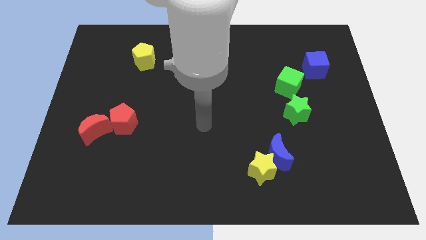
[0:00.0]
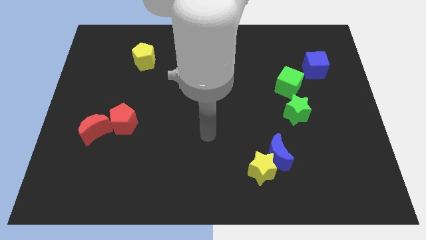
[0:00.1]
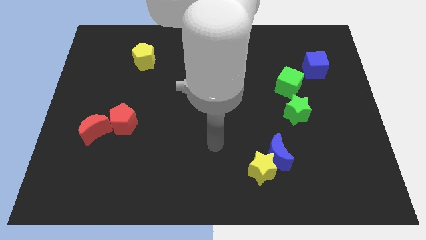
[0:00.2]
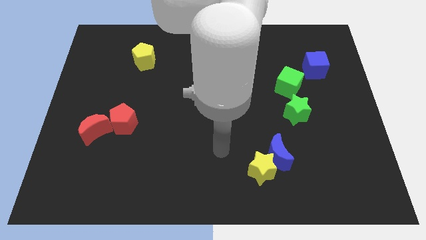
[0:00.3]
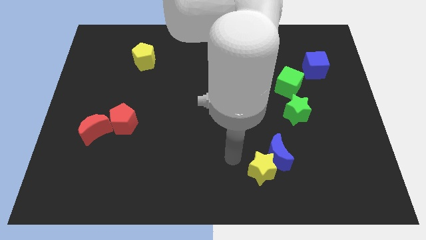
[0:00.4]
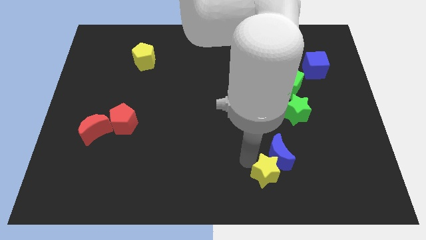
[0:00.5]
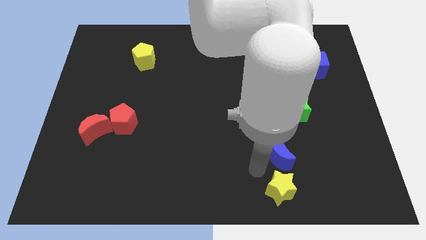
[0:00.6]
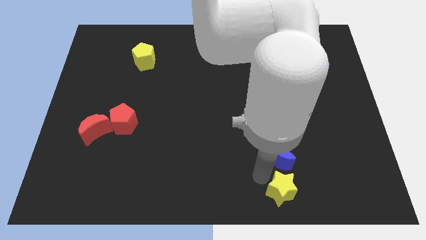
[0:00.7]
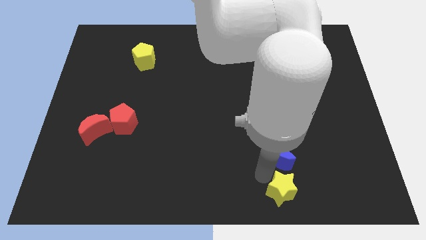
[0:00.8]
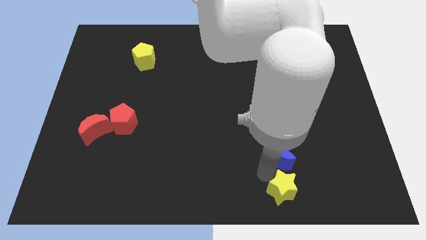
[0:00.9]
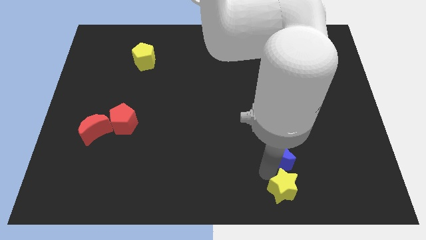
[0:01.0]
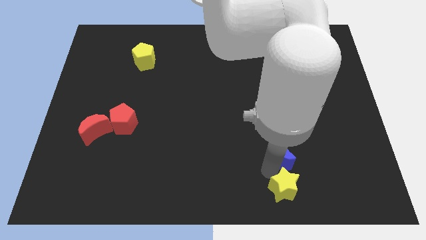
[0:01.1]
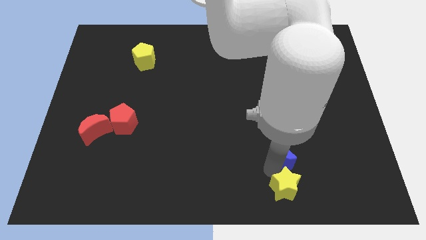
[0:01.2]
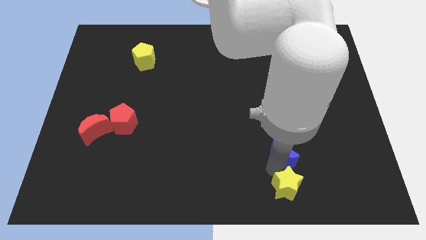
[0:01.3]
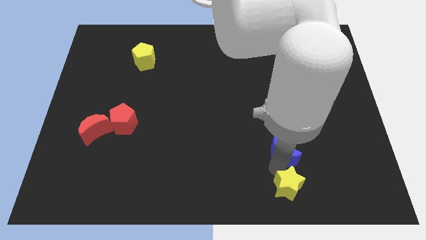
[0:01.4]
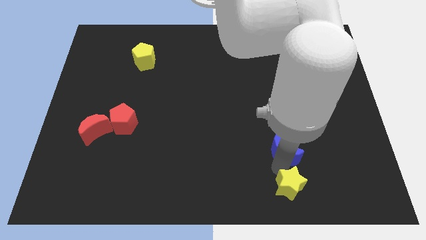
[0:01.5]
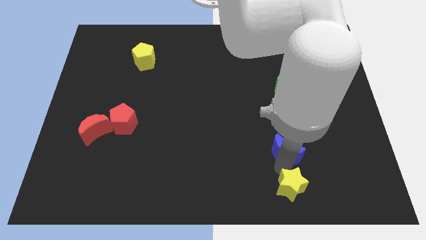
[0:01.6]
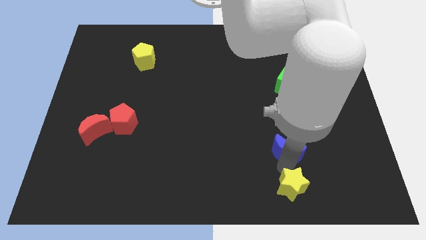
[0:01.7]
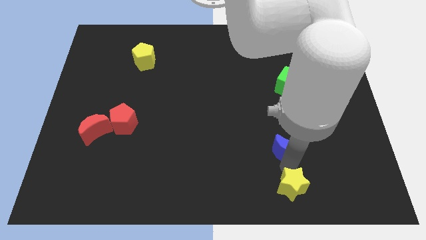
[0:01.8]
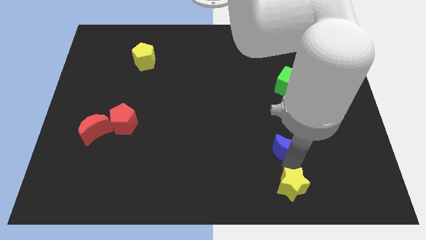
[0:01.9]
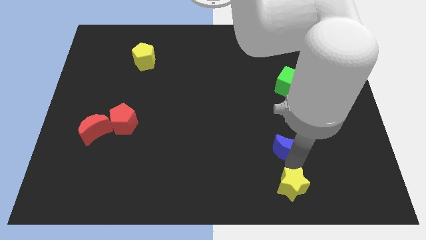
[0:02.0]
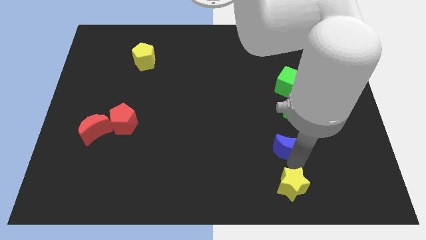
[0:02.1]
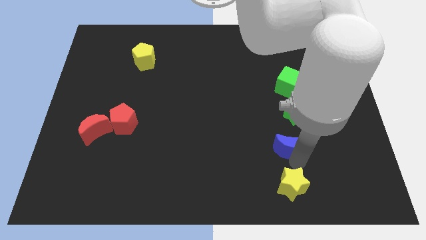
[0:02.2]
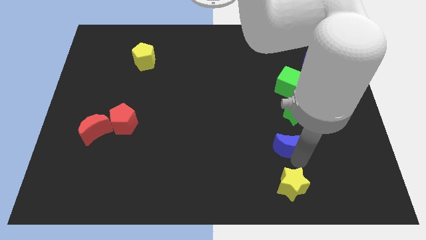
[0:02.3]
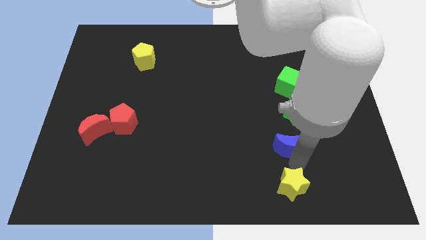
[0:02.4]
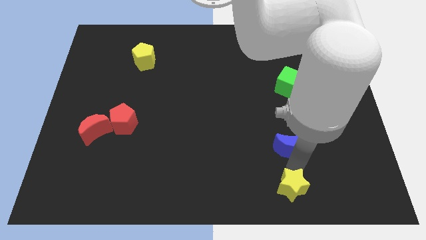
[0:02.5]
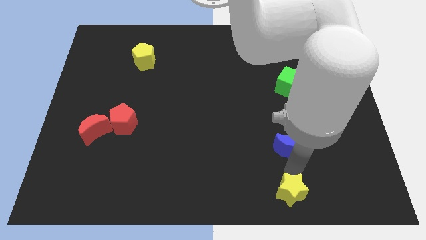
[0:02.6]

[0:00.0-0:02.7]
separate the blue moon from the yellow star

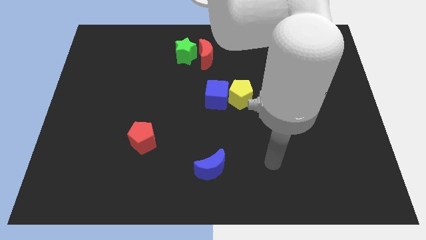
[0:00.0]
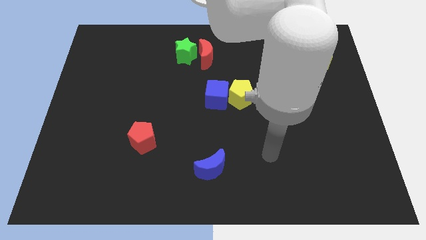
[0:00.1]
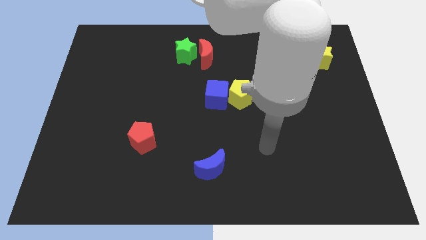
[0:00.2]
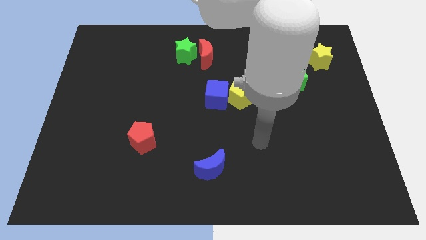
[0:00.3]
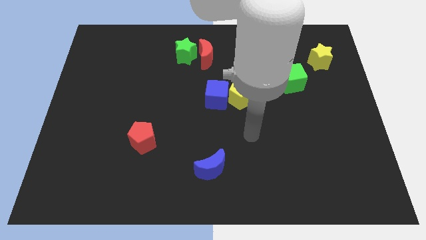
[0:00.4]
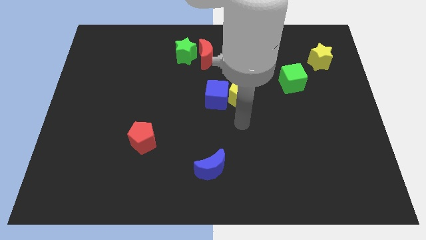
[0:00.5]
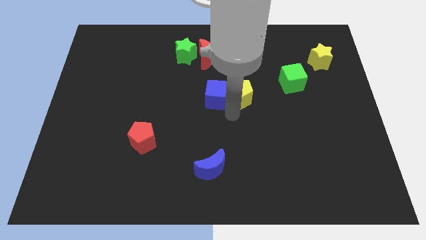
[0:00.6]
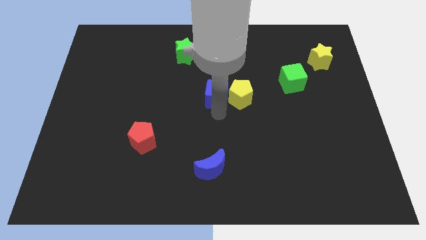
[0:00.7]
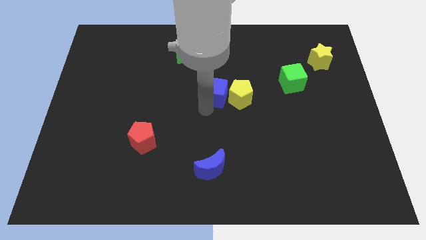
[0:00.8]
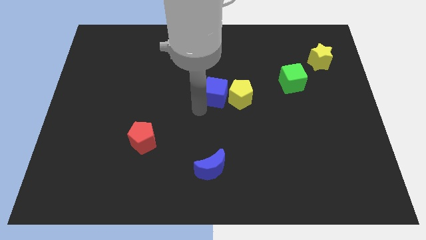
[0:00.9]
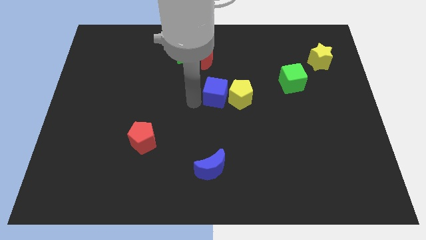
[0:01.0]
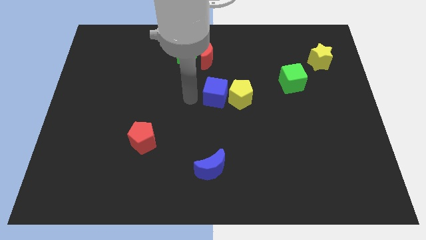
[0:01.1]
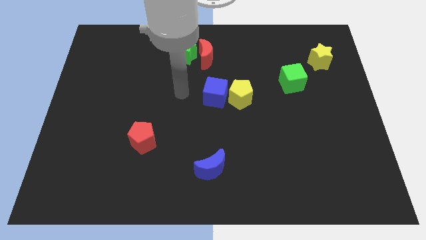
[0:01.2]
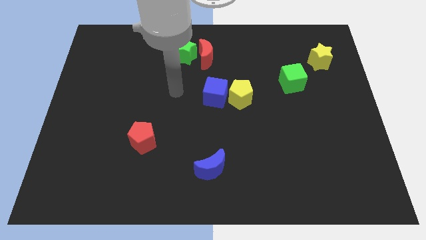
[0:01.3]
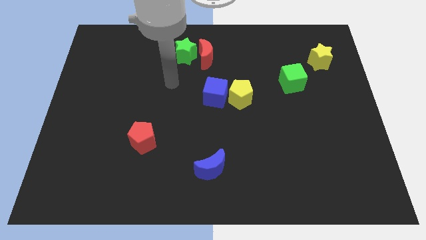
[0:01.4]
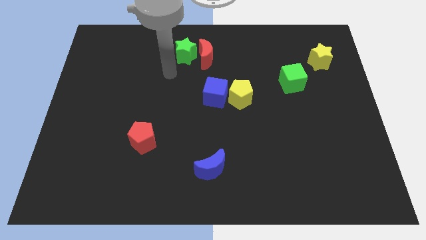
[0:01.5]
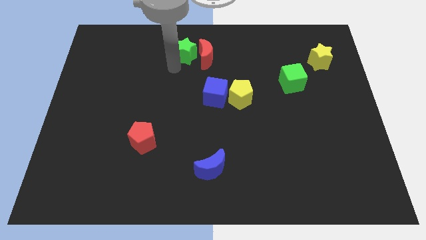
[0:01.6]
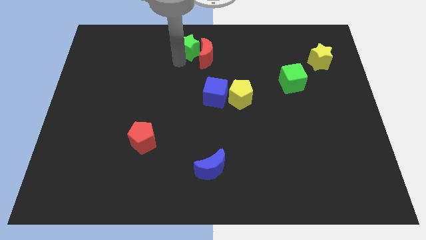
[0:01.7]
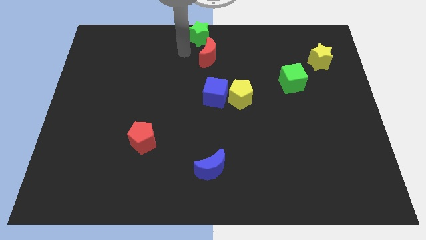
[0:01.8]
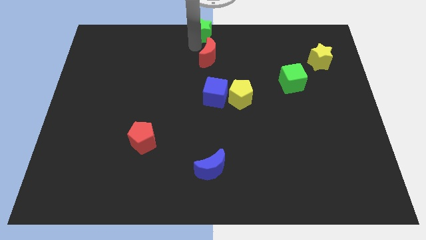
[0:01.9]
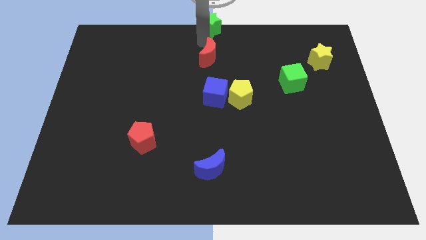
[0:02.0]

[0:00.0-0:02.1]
pull the red moon apart from the green star

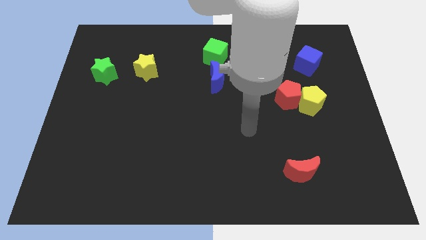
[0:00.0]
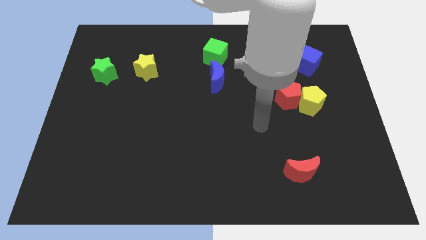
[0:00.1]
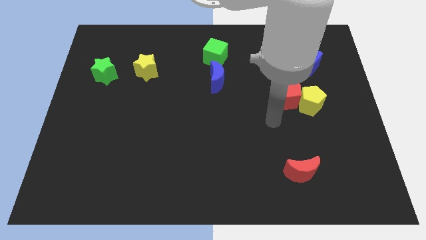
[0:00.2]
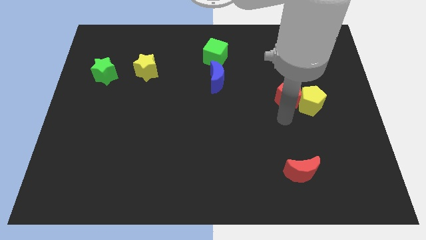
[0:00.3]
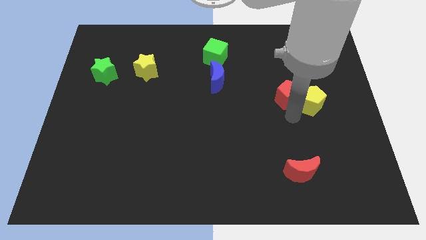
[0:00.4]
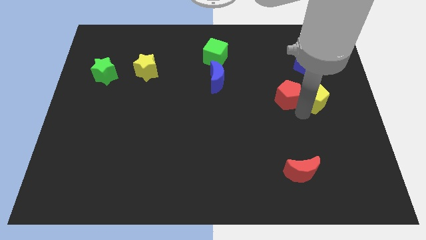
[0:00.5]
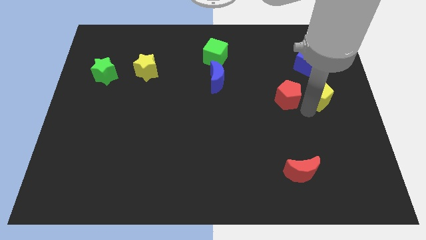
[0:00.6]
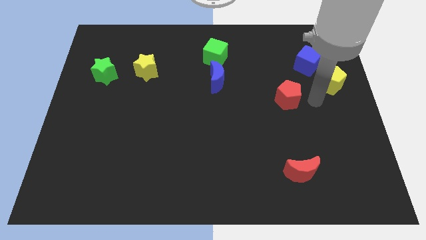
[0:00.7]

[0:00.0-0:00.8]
pull the red pentagon apart from the yellow pentagon

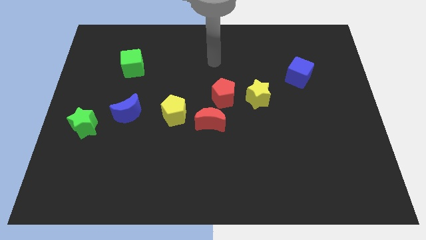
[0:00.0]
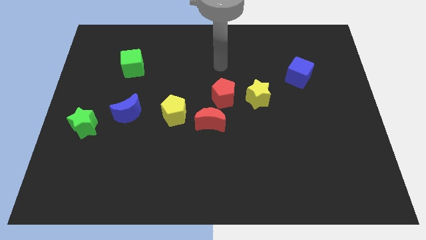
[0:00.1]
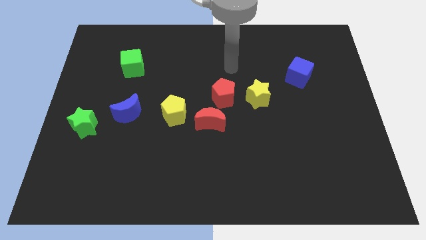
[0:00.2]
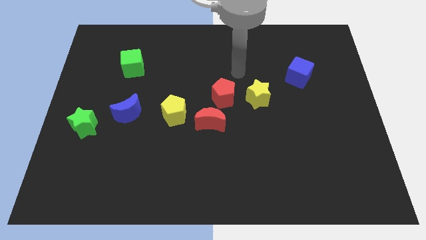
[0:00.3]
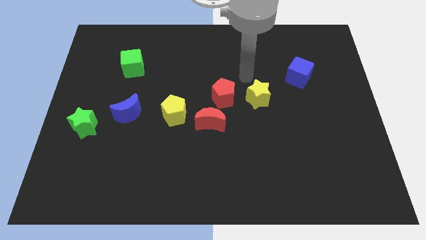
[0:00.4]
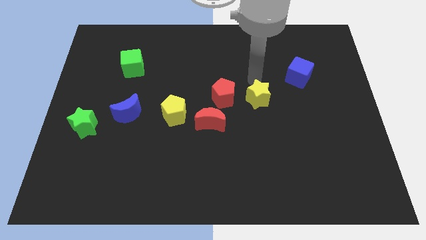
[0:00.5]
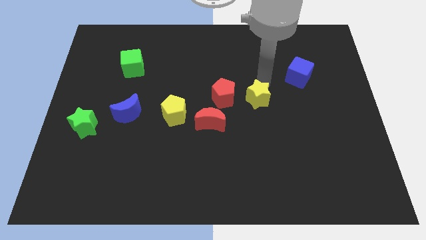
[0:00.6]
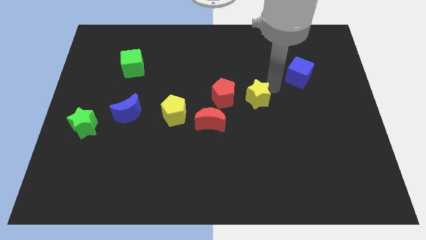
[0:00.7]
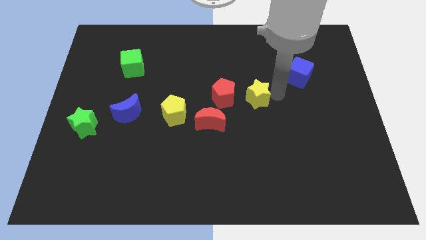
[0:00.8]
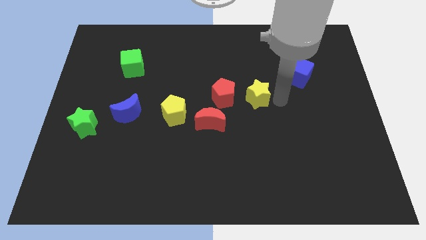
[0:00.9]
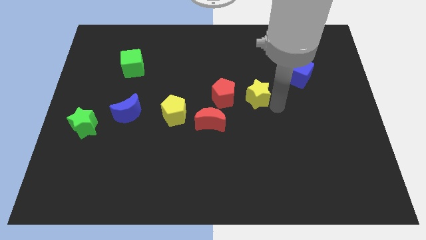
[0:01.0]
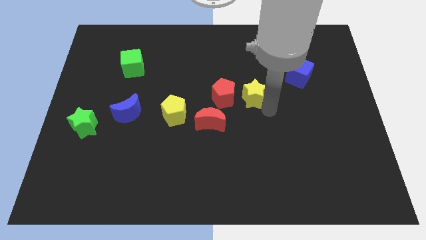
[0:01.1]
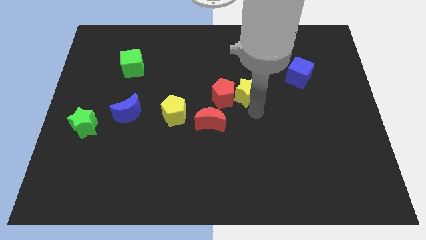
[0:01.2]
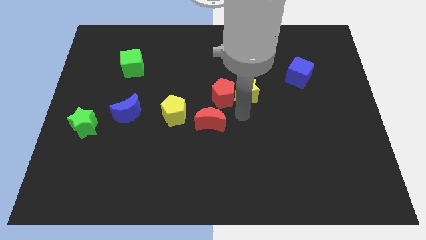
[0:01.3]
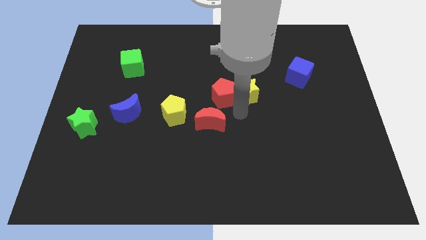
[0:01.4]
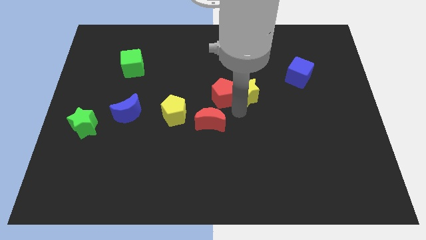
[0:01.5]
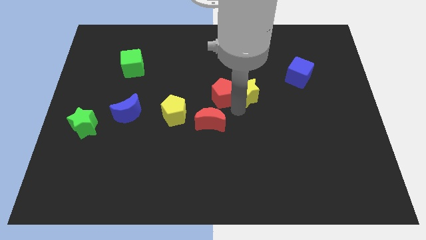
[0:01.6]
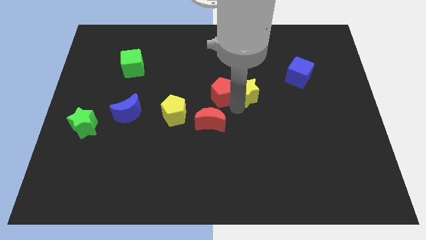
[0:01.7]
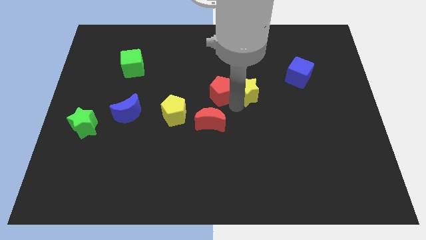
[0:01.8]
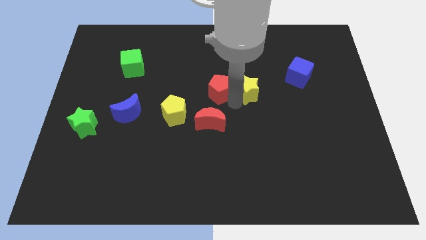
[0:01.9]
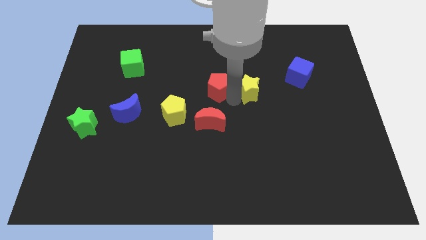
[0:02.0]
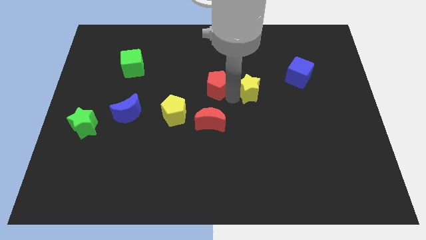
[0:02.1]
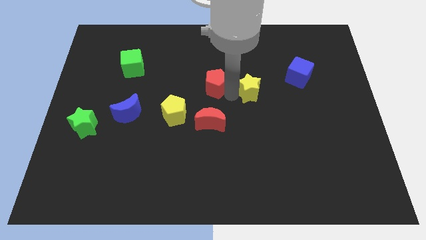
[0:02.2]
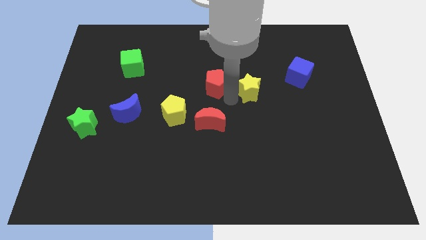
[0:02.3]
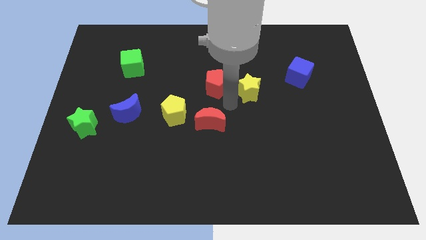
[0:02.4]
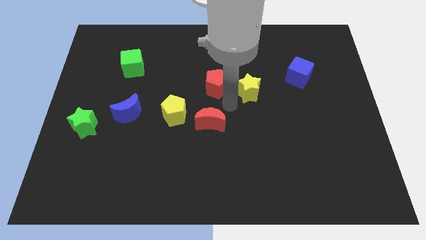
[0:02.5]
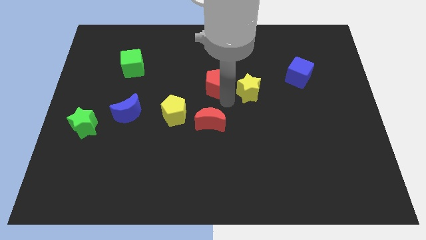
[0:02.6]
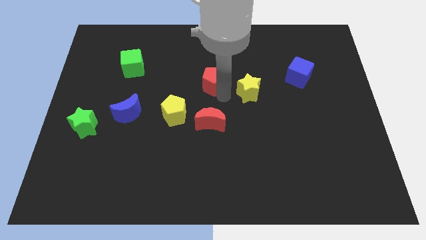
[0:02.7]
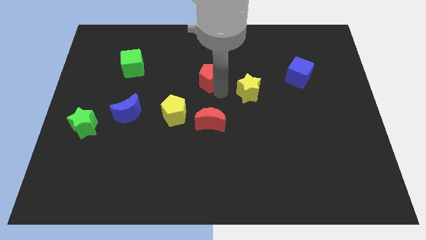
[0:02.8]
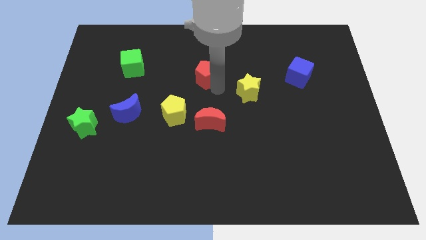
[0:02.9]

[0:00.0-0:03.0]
move the red pentagon away from the red moon and yellow star

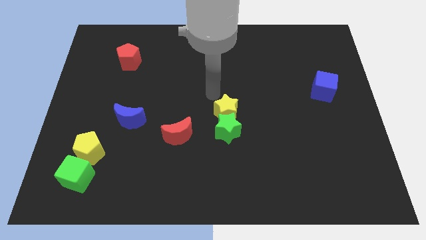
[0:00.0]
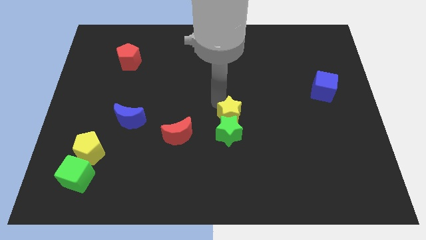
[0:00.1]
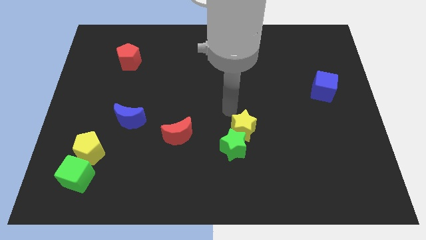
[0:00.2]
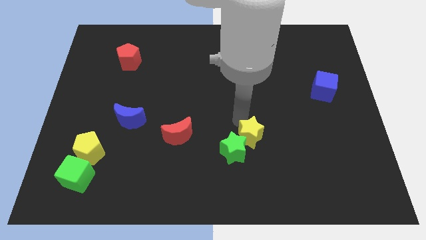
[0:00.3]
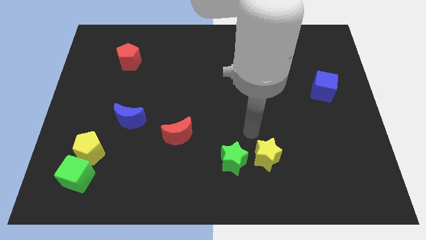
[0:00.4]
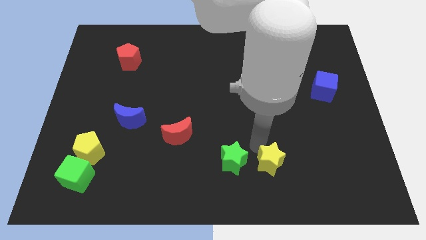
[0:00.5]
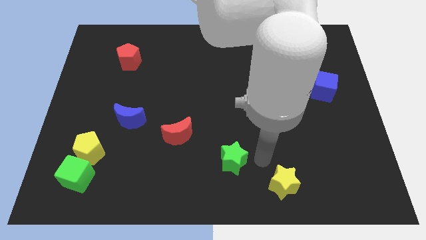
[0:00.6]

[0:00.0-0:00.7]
move the green star away from the yellow star
